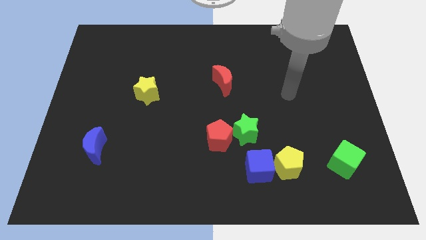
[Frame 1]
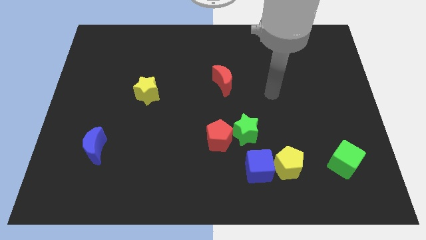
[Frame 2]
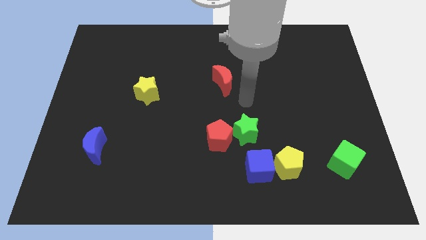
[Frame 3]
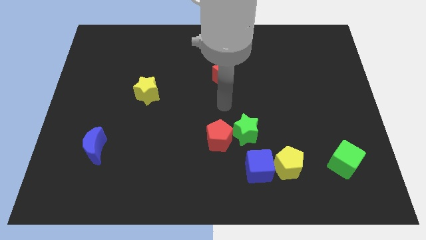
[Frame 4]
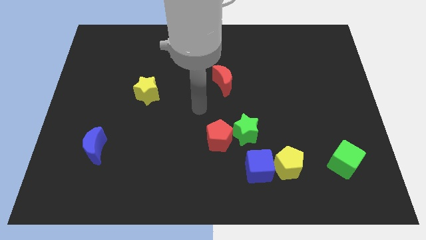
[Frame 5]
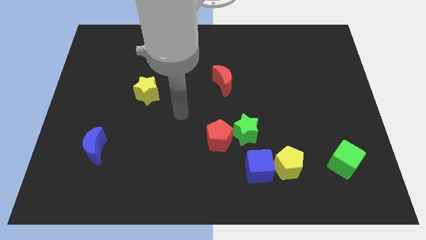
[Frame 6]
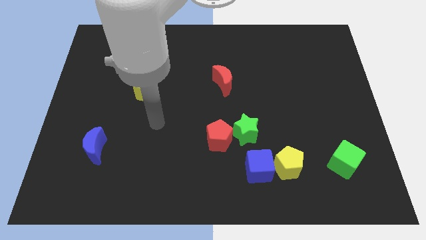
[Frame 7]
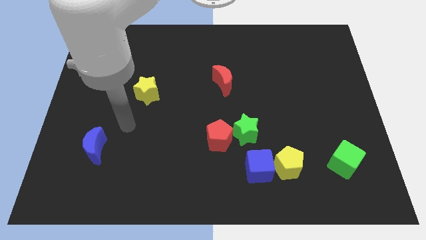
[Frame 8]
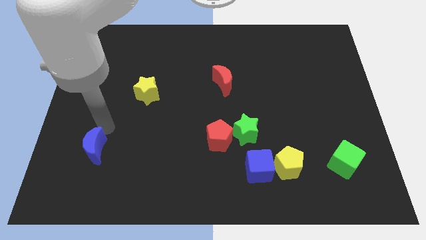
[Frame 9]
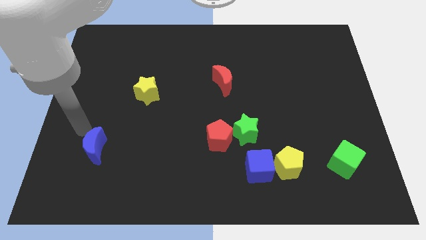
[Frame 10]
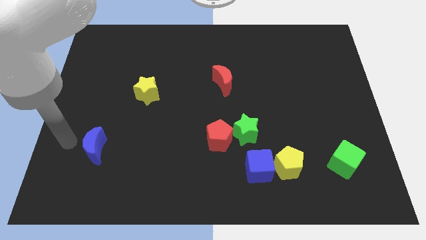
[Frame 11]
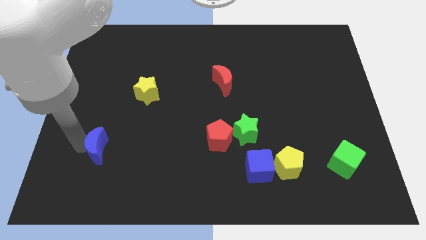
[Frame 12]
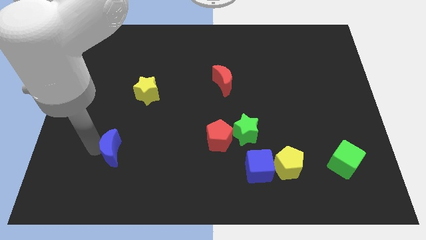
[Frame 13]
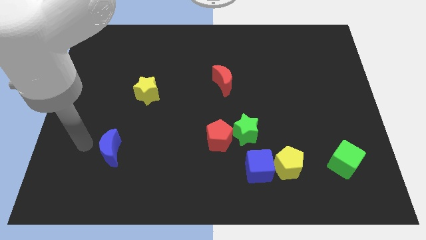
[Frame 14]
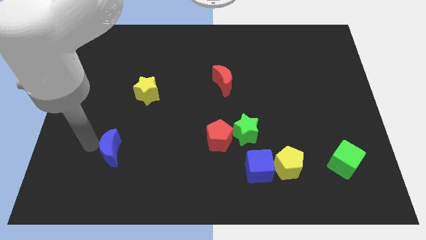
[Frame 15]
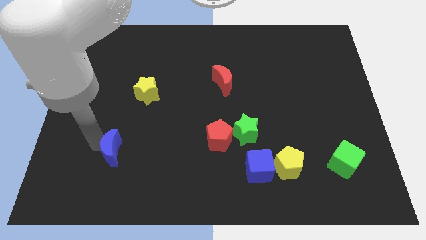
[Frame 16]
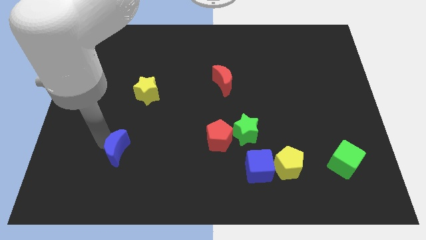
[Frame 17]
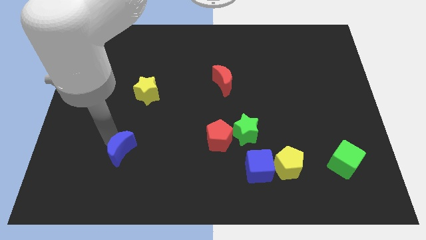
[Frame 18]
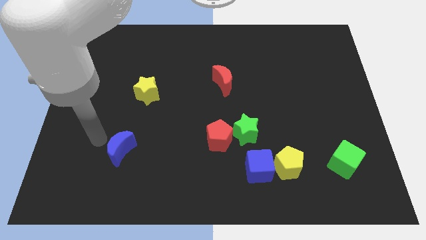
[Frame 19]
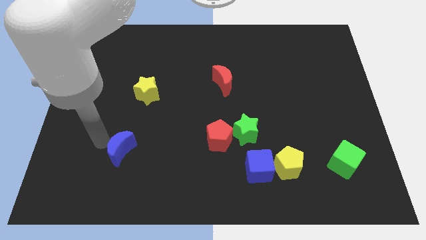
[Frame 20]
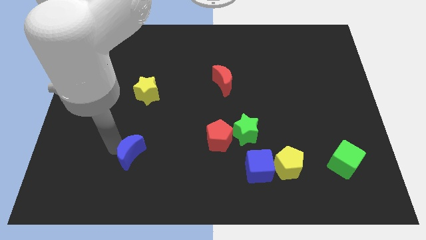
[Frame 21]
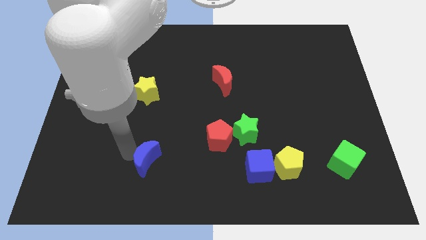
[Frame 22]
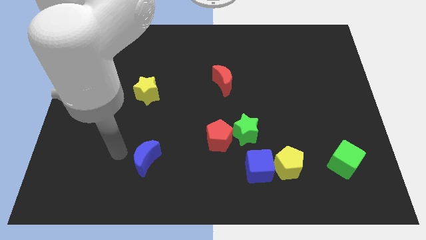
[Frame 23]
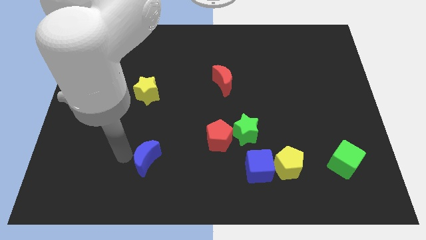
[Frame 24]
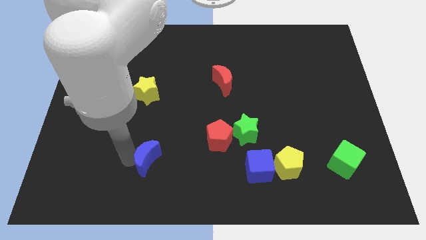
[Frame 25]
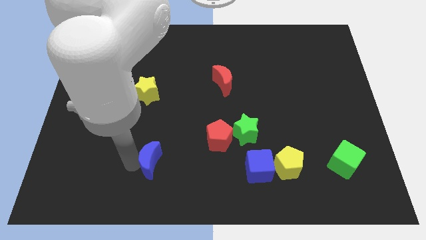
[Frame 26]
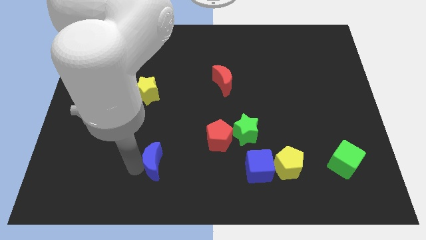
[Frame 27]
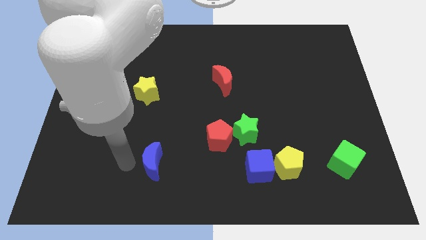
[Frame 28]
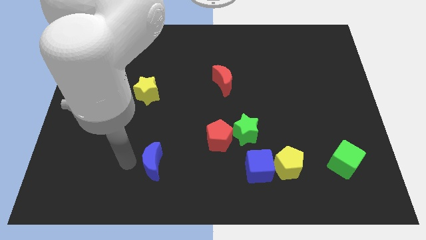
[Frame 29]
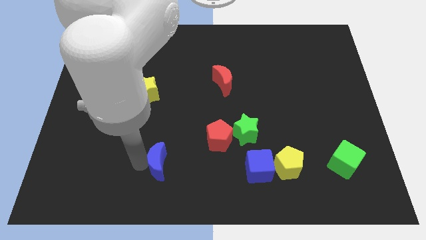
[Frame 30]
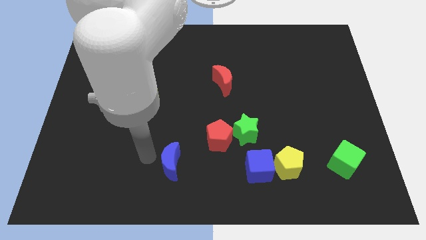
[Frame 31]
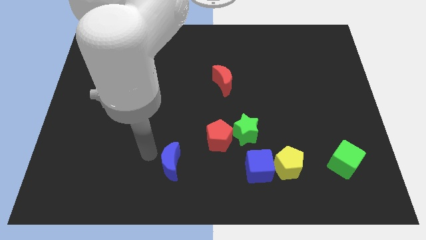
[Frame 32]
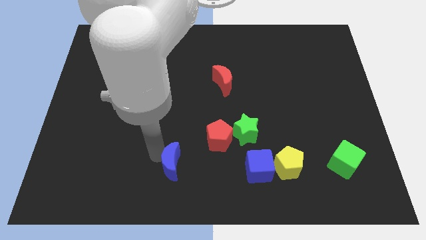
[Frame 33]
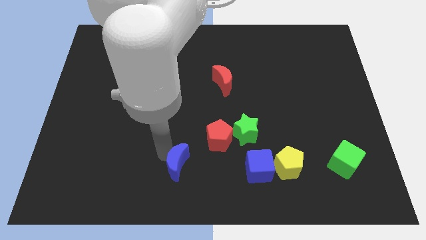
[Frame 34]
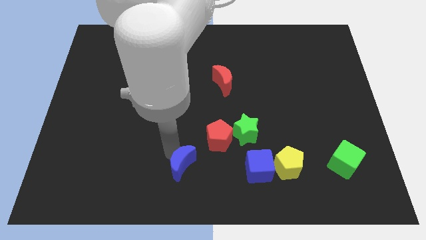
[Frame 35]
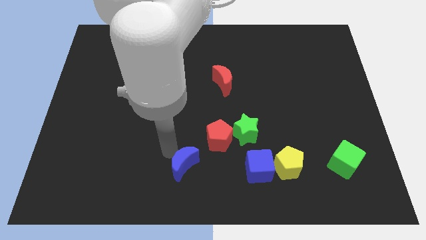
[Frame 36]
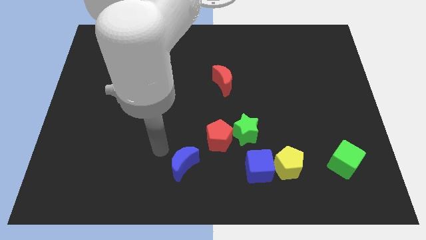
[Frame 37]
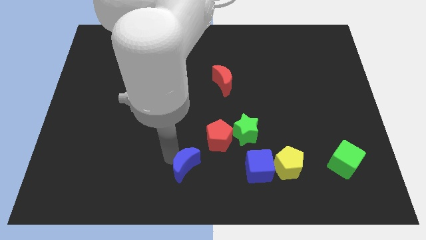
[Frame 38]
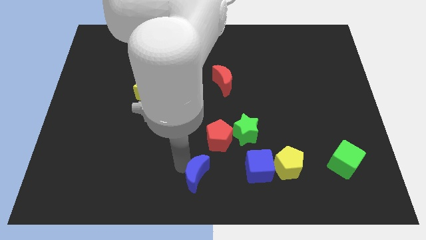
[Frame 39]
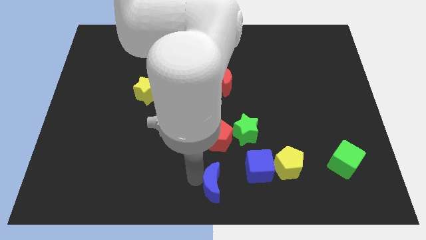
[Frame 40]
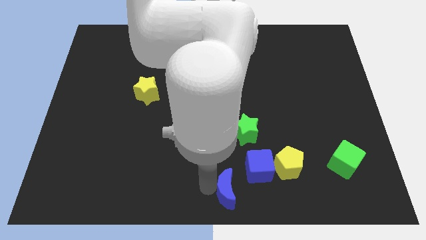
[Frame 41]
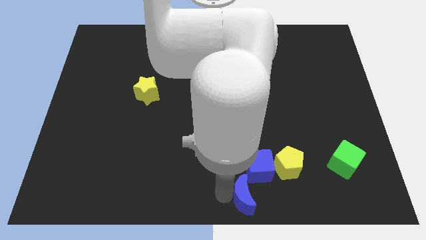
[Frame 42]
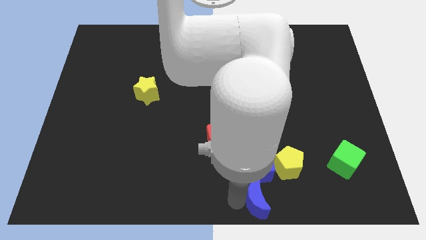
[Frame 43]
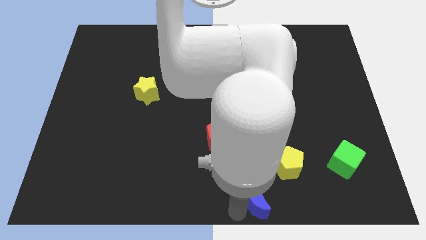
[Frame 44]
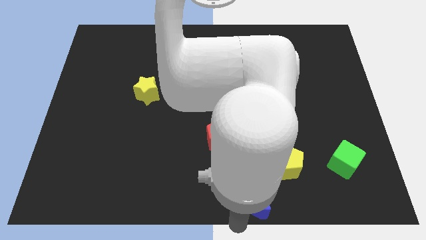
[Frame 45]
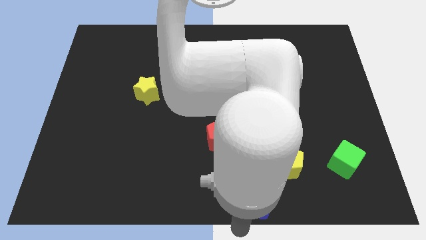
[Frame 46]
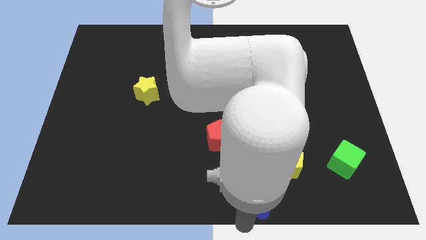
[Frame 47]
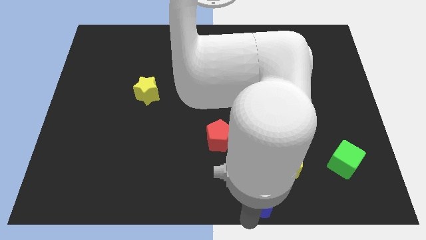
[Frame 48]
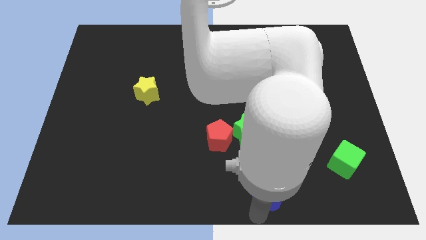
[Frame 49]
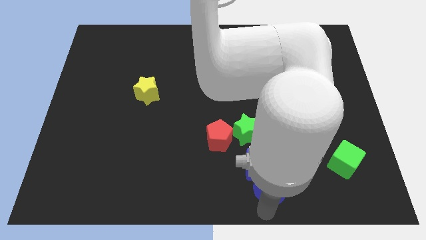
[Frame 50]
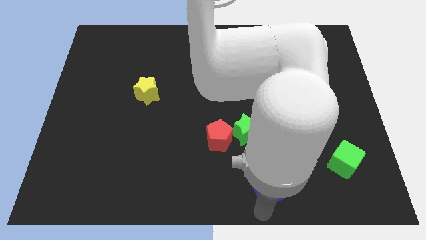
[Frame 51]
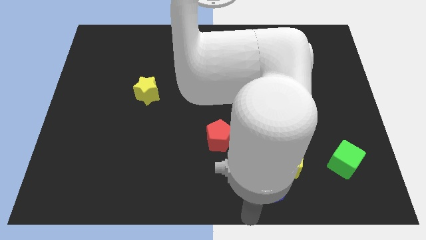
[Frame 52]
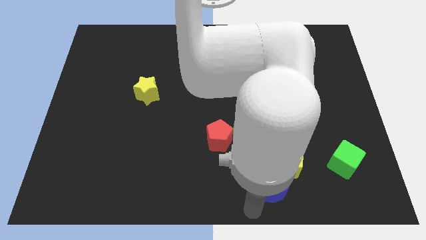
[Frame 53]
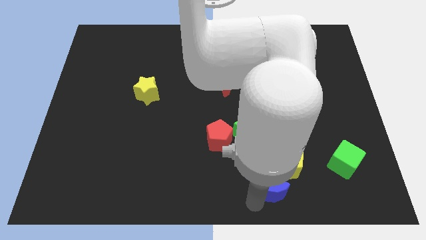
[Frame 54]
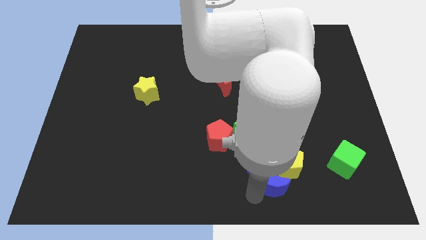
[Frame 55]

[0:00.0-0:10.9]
push the blue moon to the yellow pentagon

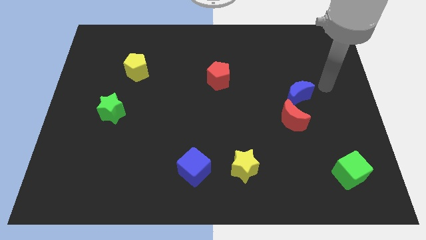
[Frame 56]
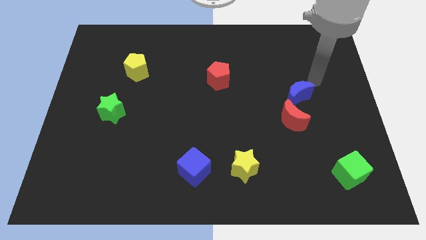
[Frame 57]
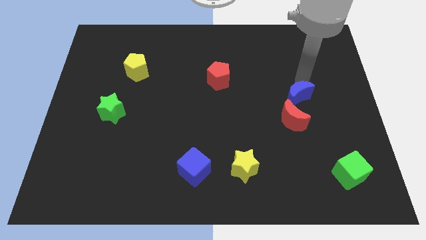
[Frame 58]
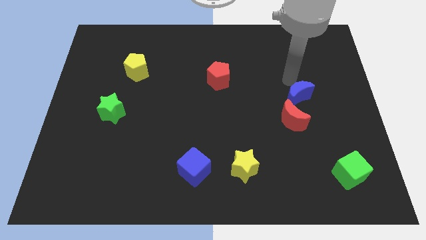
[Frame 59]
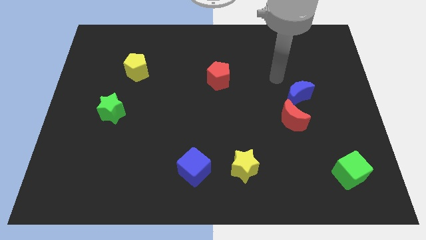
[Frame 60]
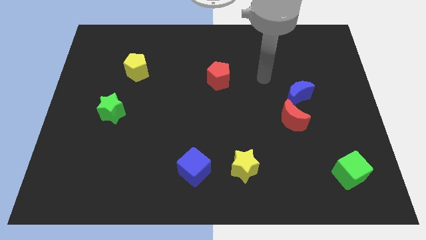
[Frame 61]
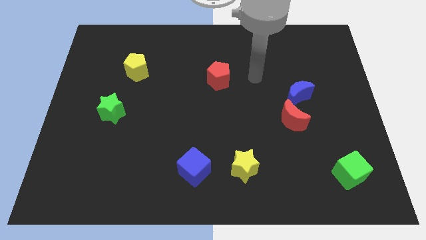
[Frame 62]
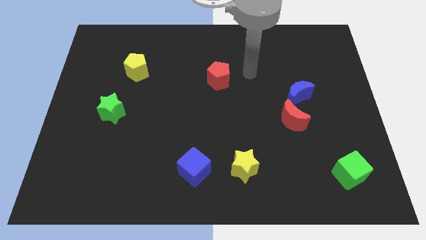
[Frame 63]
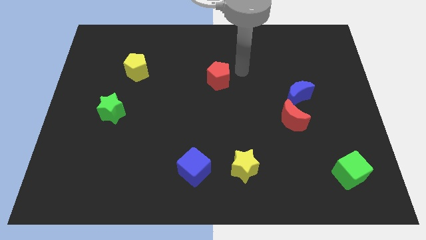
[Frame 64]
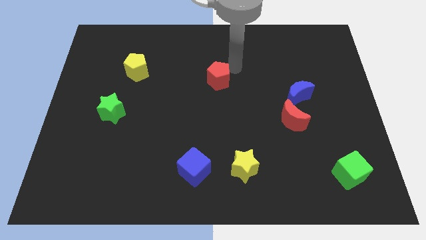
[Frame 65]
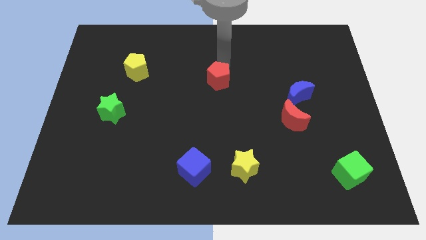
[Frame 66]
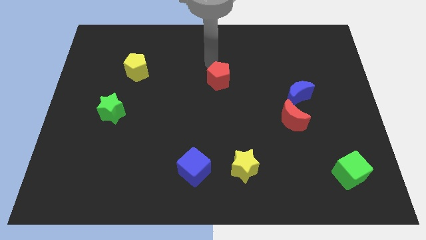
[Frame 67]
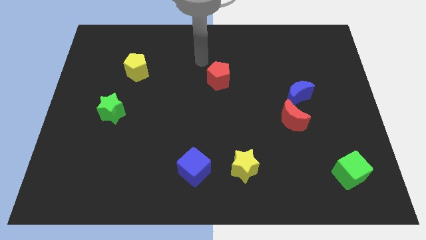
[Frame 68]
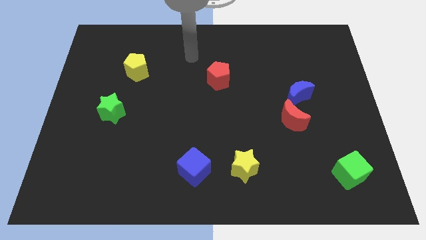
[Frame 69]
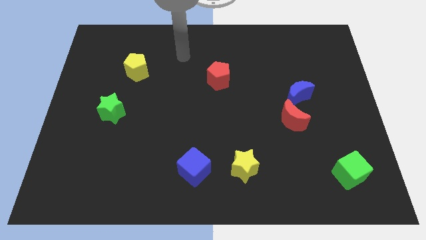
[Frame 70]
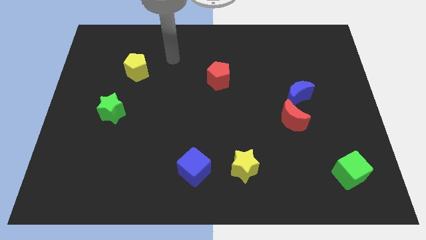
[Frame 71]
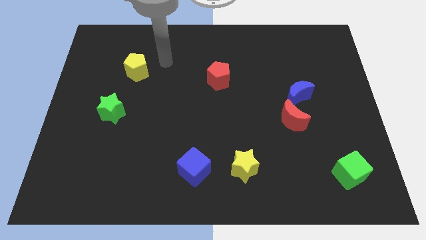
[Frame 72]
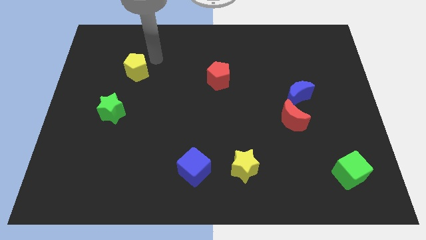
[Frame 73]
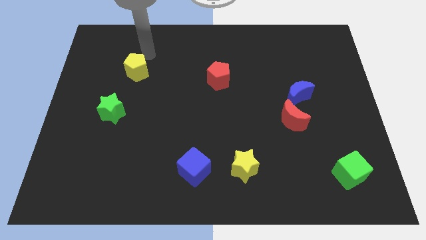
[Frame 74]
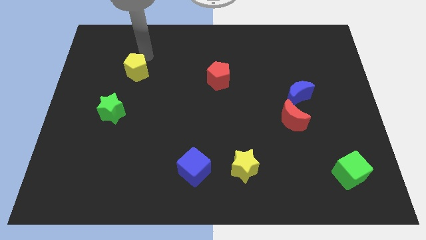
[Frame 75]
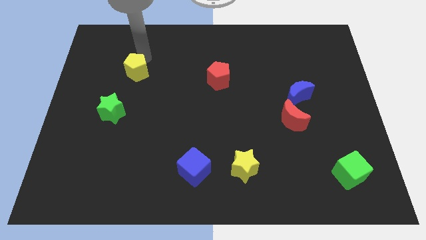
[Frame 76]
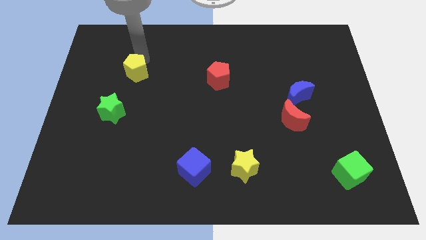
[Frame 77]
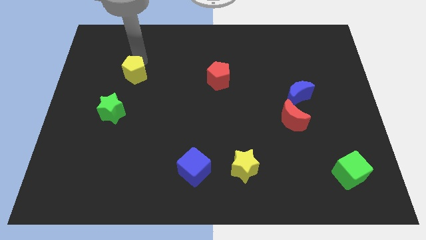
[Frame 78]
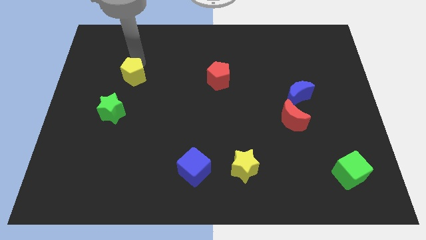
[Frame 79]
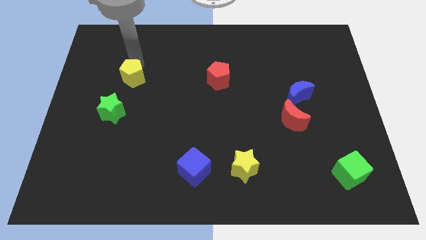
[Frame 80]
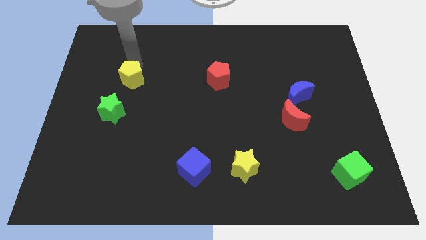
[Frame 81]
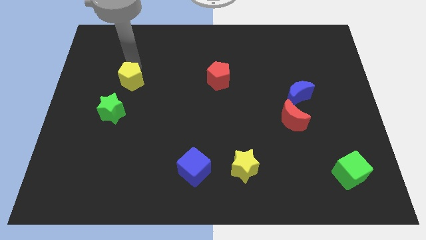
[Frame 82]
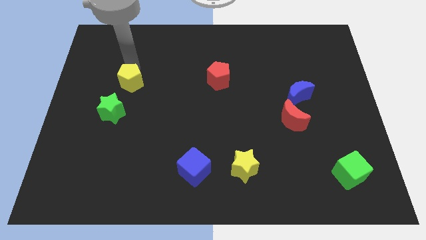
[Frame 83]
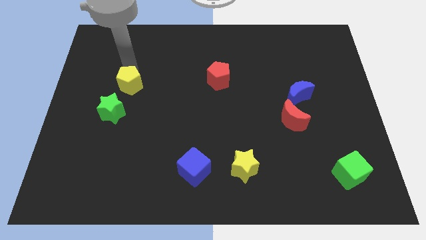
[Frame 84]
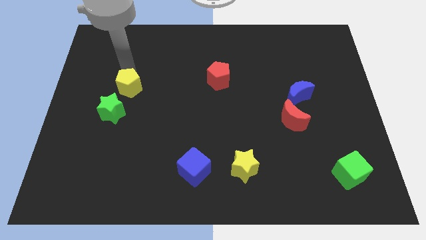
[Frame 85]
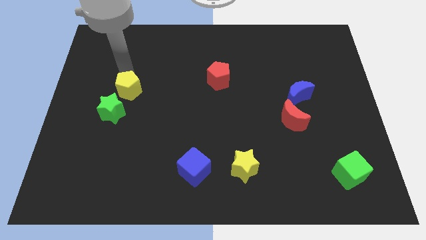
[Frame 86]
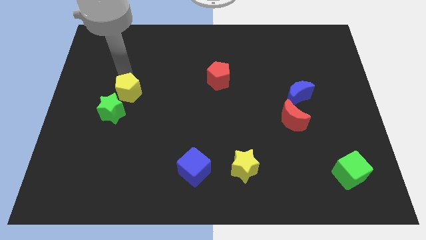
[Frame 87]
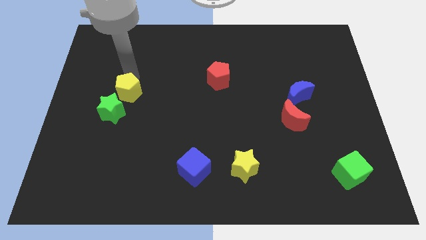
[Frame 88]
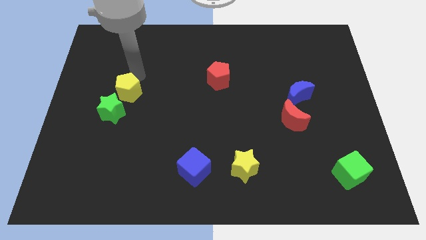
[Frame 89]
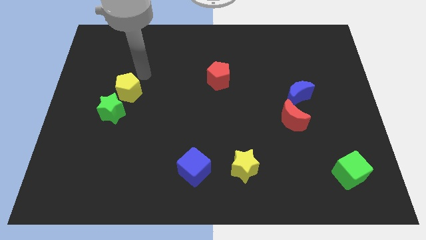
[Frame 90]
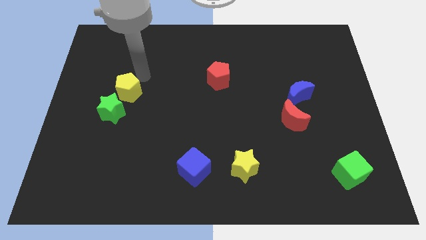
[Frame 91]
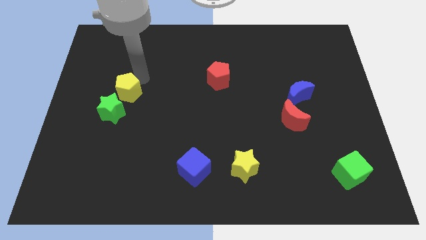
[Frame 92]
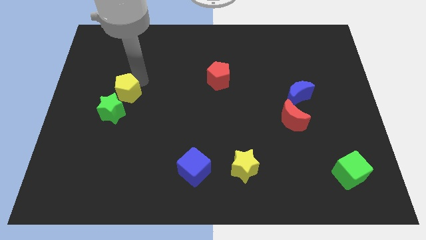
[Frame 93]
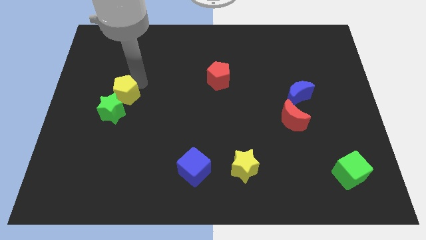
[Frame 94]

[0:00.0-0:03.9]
move the yellow pentagon to the green star
